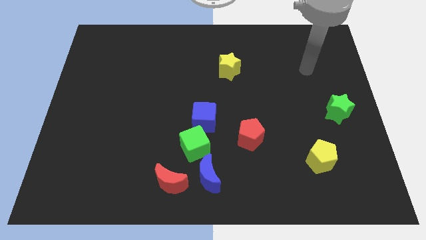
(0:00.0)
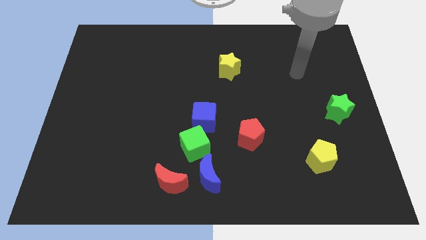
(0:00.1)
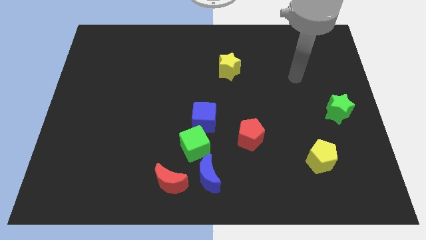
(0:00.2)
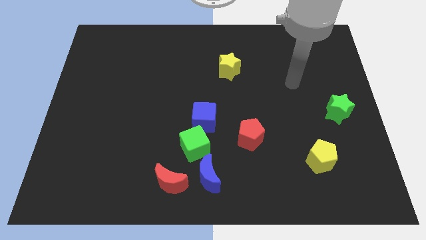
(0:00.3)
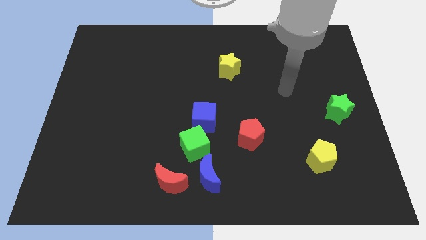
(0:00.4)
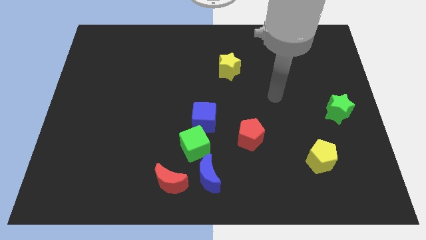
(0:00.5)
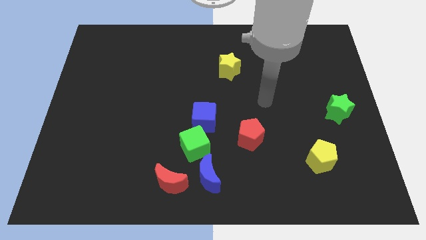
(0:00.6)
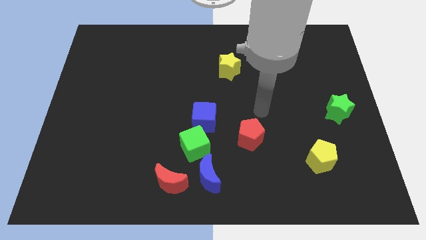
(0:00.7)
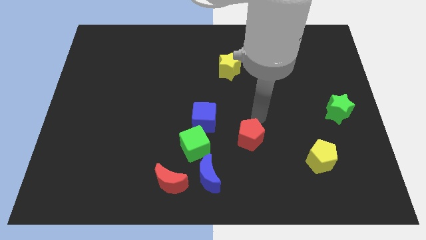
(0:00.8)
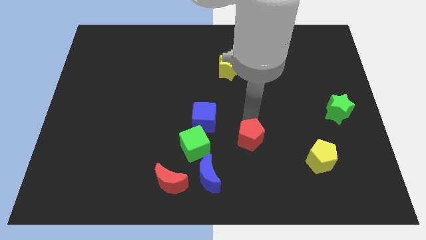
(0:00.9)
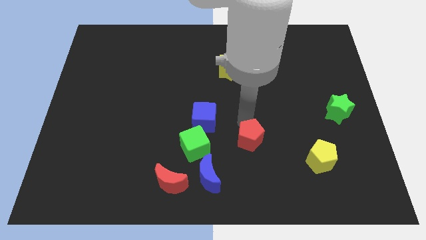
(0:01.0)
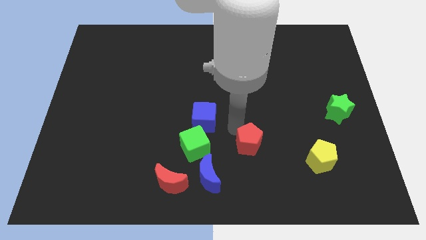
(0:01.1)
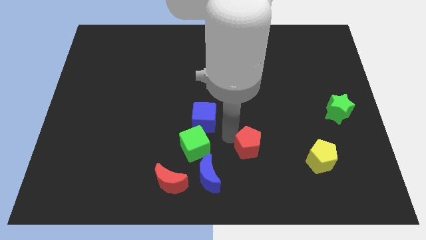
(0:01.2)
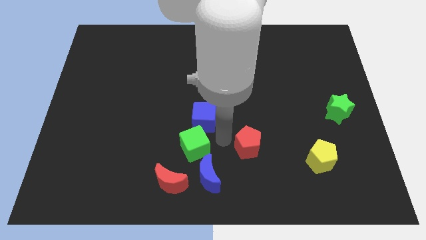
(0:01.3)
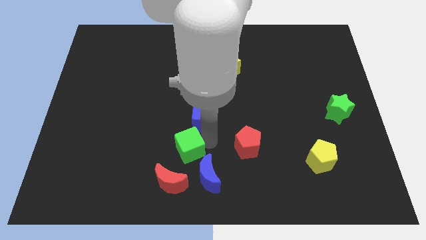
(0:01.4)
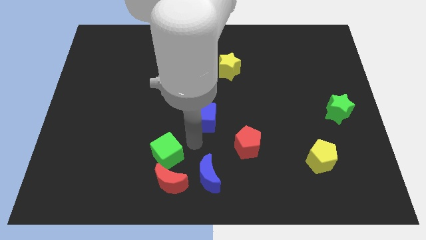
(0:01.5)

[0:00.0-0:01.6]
pull the blue cube apart from the green cube

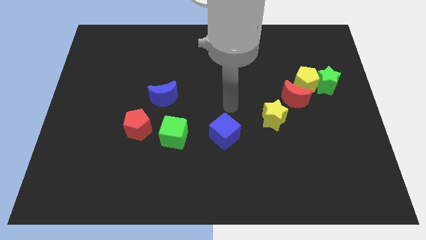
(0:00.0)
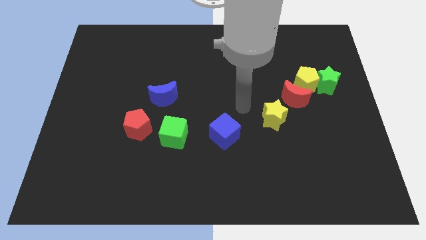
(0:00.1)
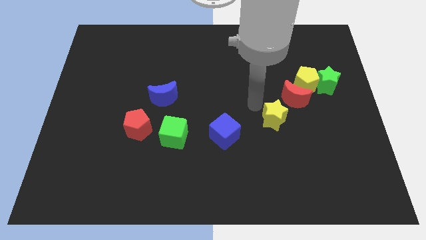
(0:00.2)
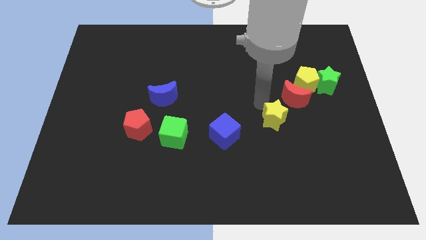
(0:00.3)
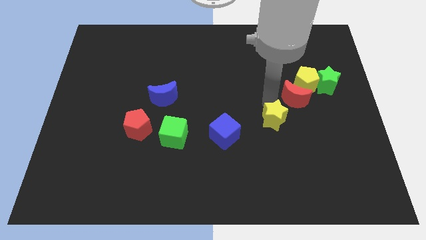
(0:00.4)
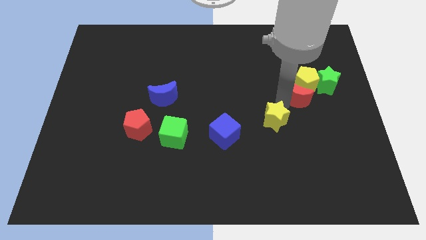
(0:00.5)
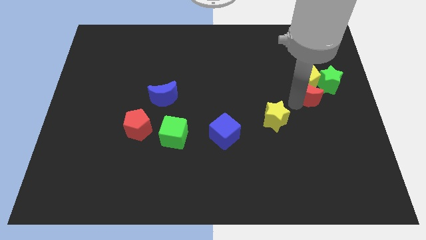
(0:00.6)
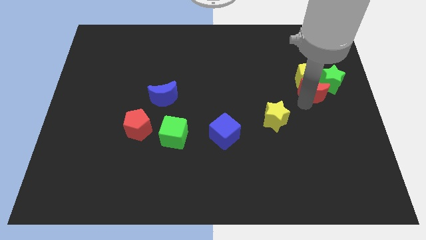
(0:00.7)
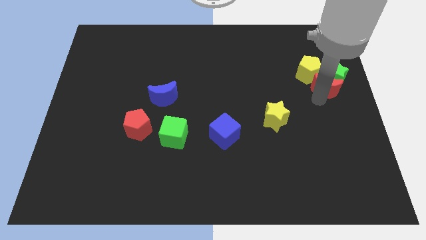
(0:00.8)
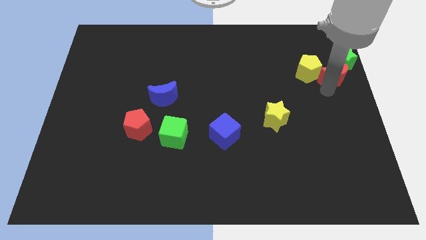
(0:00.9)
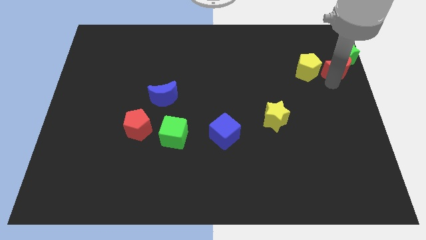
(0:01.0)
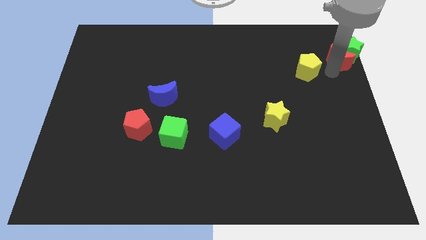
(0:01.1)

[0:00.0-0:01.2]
separate the yellow pentagon from the green star and red moon

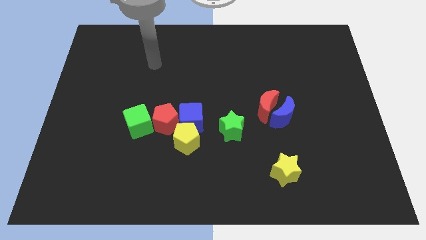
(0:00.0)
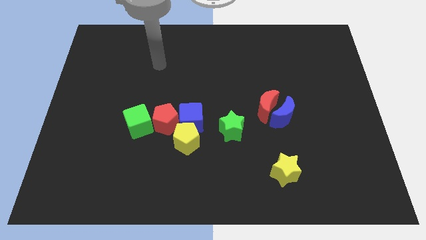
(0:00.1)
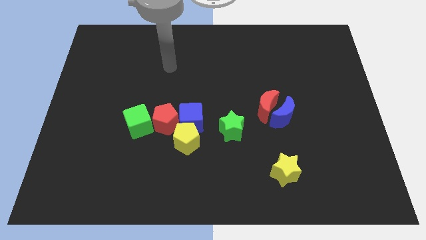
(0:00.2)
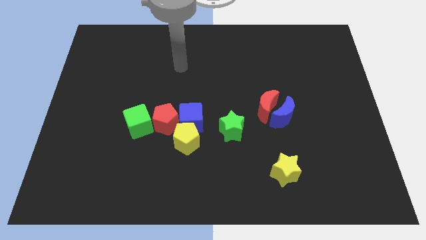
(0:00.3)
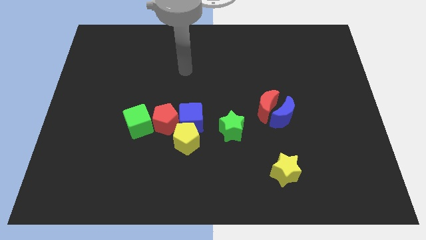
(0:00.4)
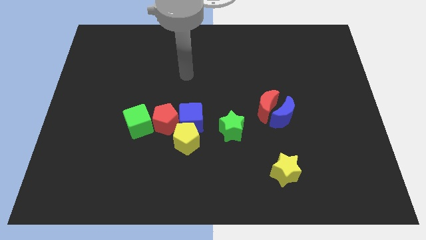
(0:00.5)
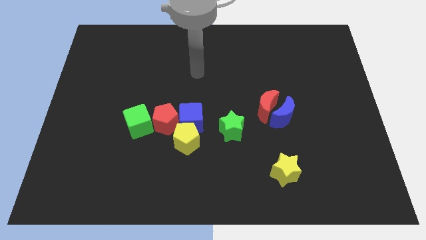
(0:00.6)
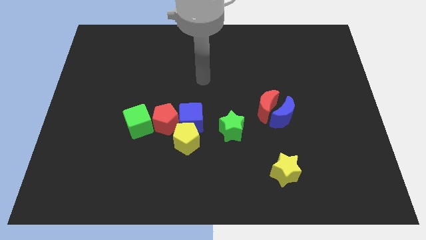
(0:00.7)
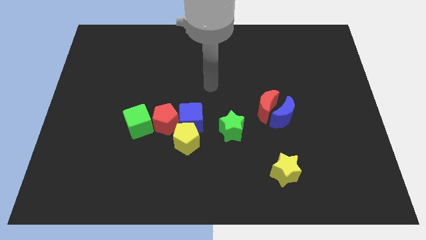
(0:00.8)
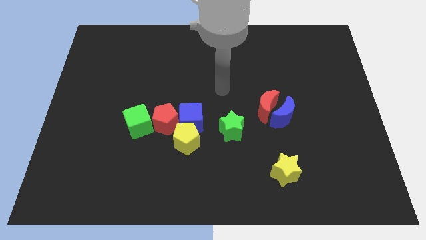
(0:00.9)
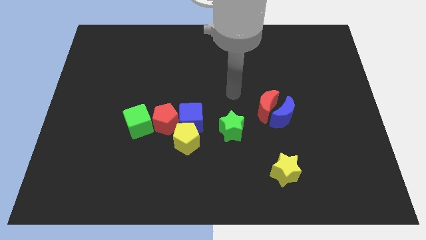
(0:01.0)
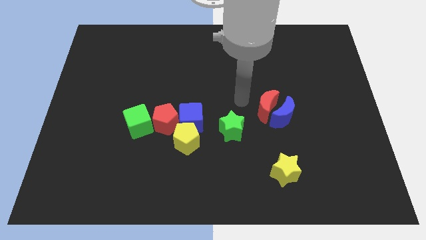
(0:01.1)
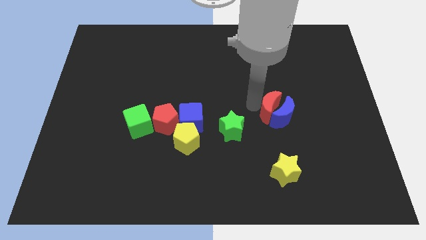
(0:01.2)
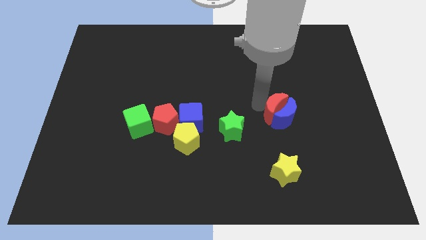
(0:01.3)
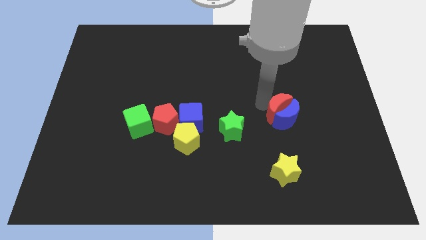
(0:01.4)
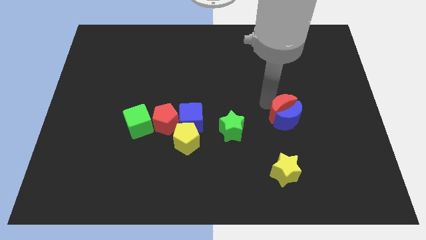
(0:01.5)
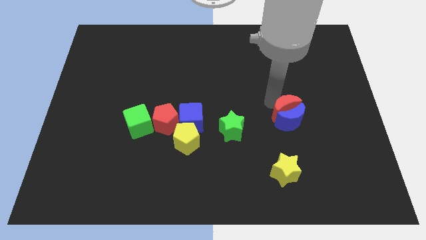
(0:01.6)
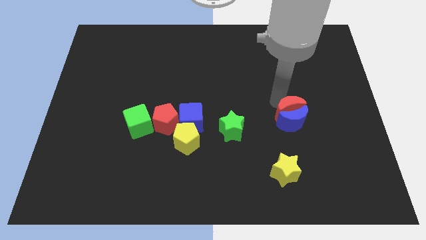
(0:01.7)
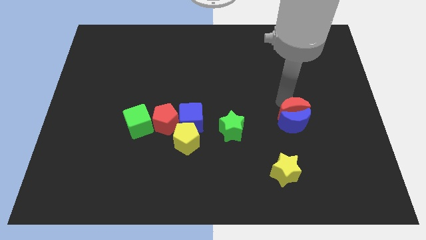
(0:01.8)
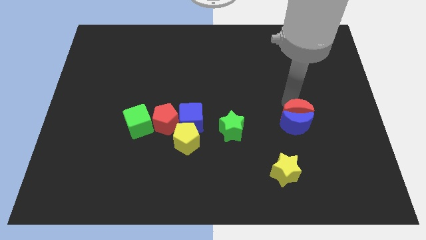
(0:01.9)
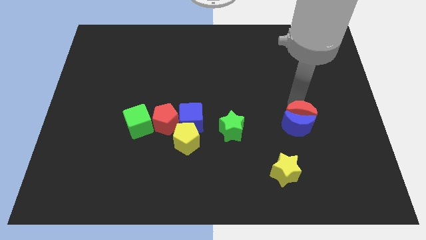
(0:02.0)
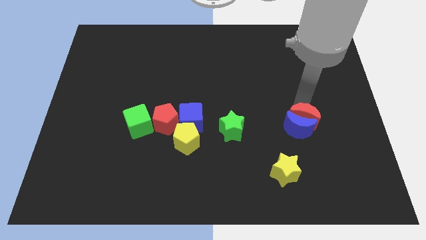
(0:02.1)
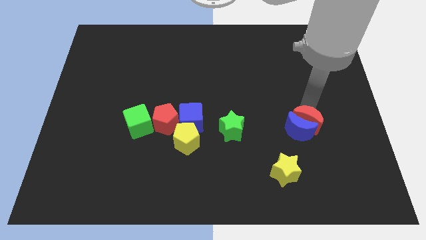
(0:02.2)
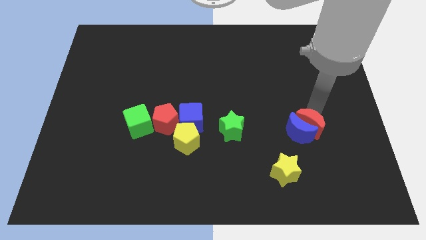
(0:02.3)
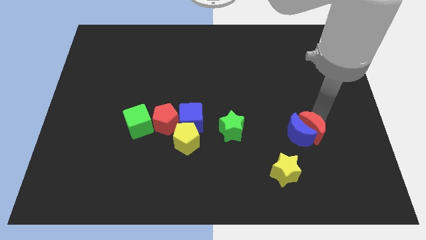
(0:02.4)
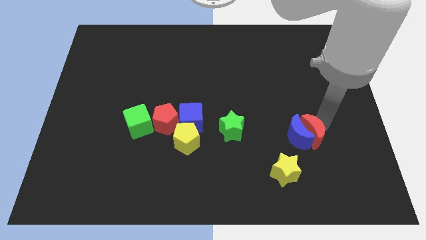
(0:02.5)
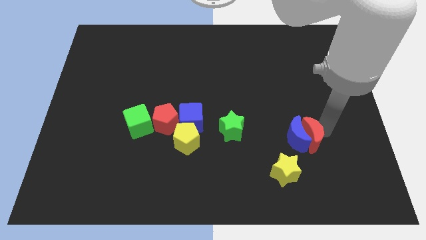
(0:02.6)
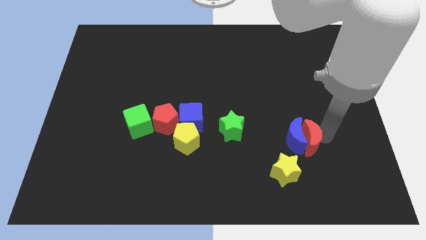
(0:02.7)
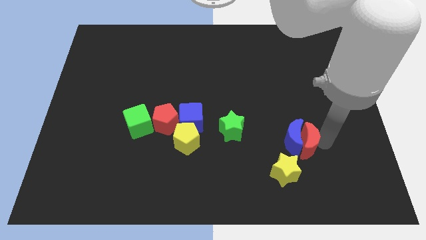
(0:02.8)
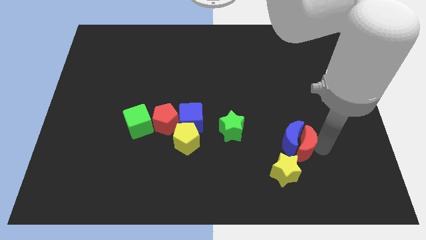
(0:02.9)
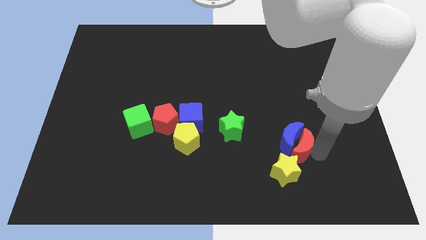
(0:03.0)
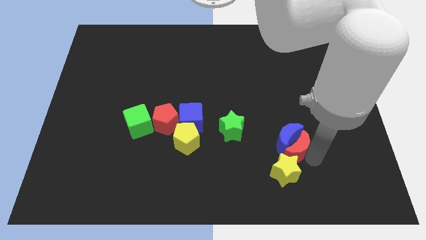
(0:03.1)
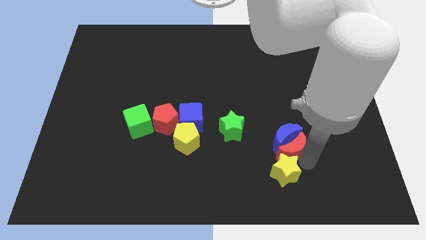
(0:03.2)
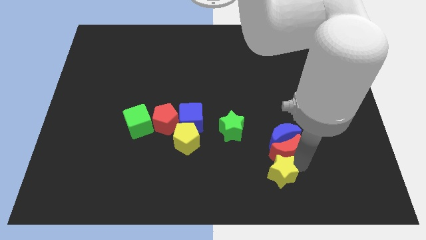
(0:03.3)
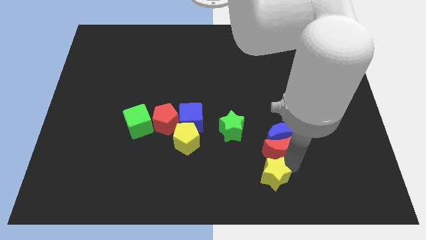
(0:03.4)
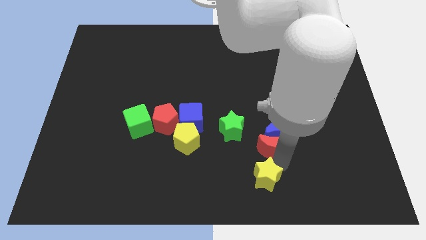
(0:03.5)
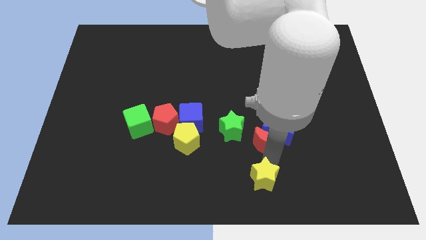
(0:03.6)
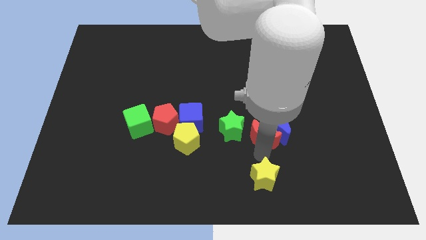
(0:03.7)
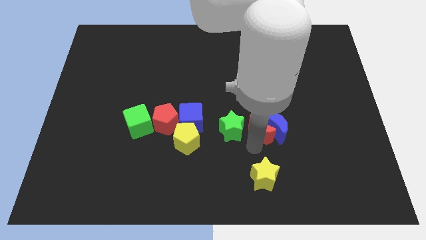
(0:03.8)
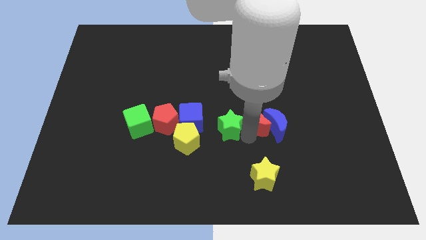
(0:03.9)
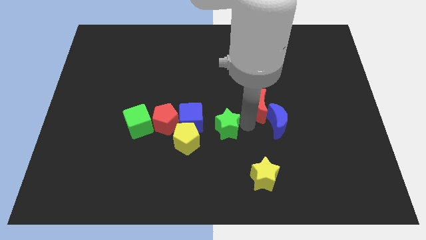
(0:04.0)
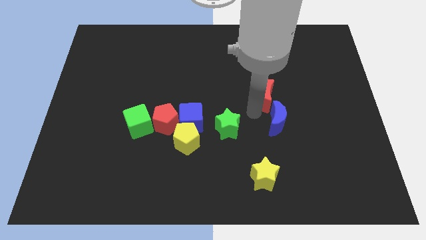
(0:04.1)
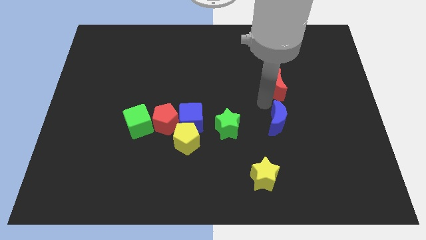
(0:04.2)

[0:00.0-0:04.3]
separate the blue moon from the red moon

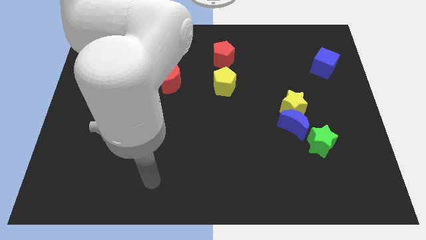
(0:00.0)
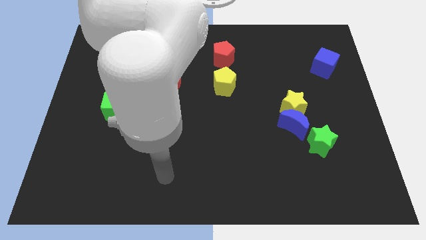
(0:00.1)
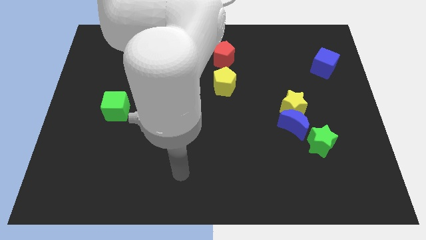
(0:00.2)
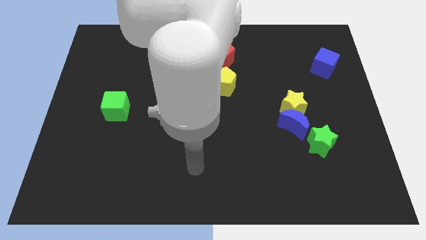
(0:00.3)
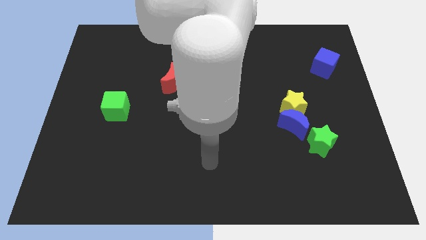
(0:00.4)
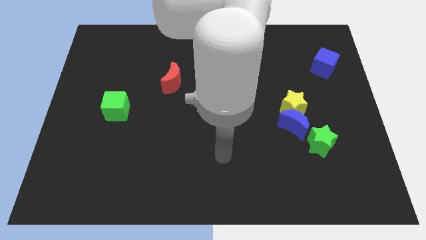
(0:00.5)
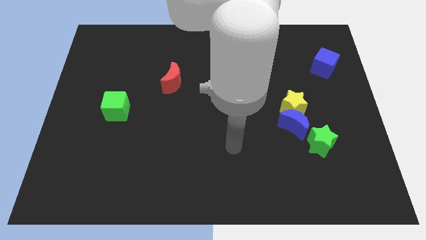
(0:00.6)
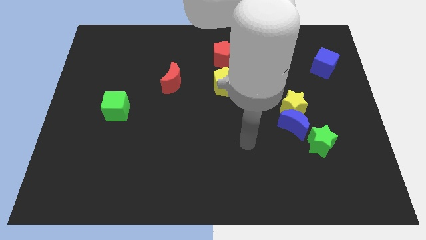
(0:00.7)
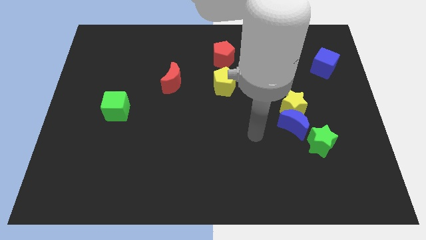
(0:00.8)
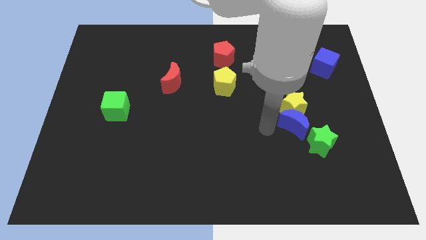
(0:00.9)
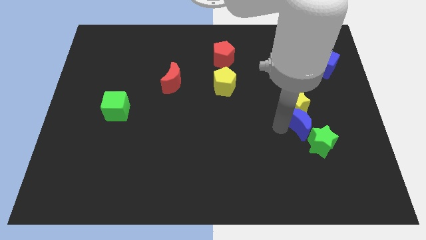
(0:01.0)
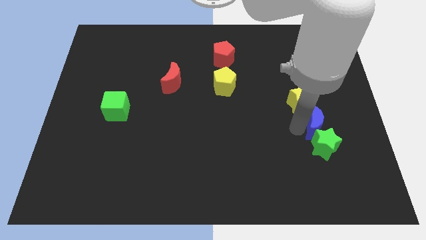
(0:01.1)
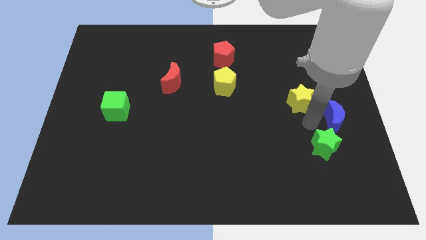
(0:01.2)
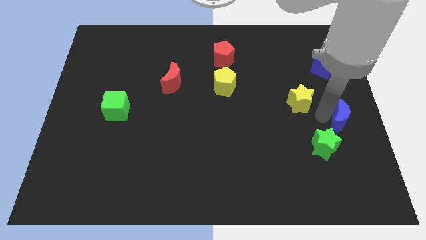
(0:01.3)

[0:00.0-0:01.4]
separate the yellow star from the blue moon

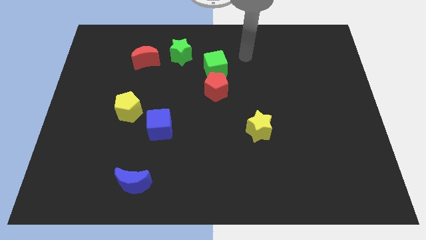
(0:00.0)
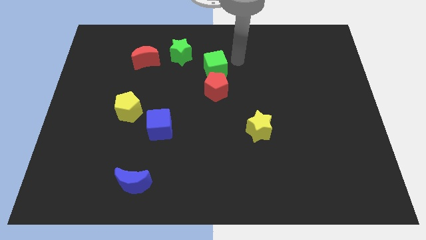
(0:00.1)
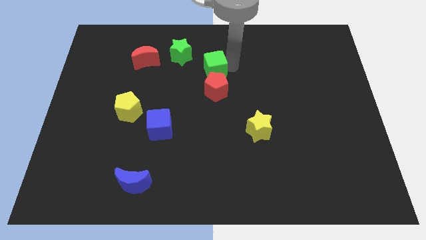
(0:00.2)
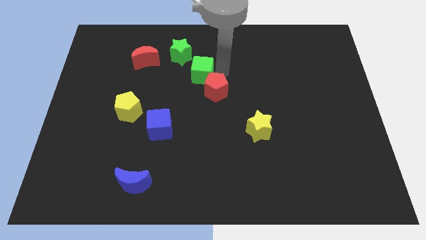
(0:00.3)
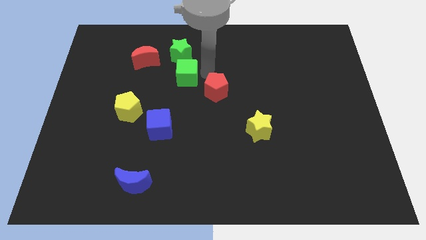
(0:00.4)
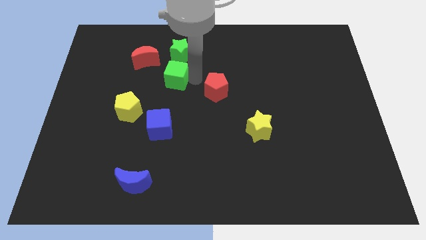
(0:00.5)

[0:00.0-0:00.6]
pull the red pentagon apart from the green cube

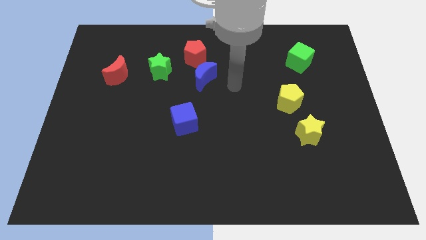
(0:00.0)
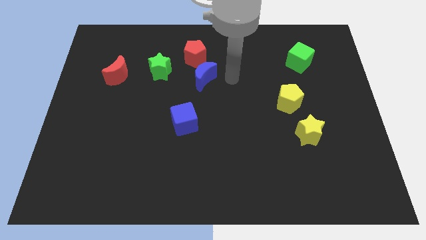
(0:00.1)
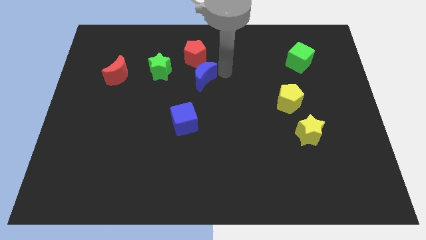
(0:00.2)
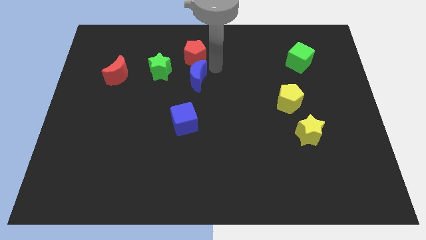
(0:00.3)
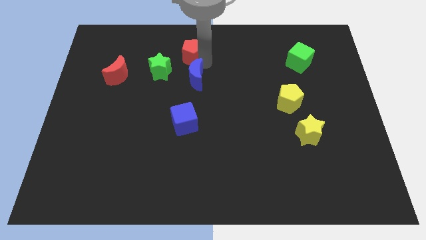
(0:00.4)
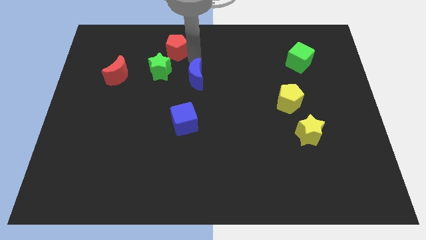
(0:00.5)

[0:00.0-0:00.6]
pull the blue moon apart from the red pentagon
